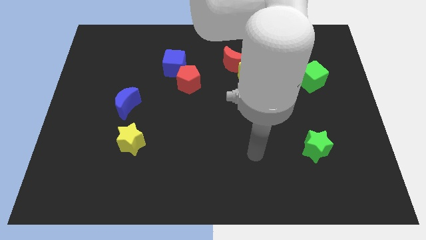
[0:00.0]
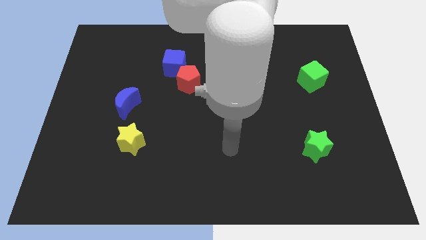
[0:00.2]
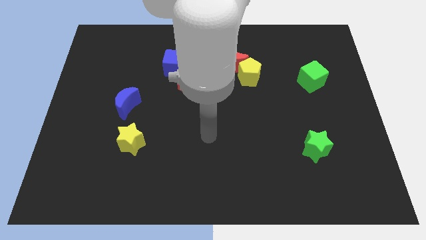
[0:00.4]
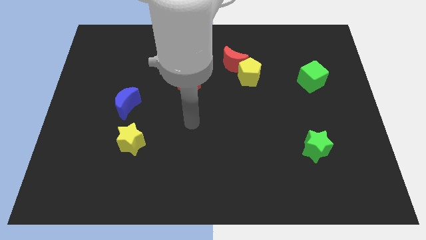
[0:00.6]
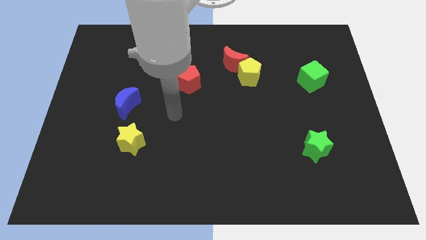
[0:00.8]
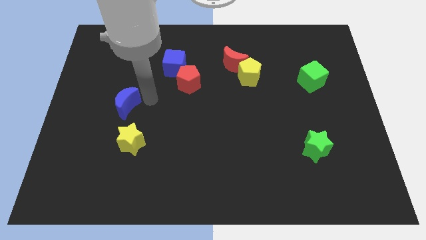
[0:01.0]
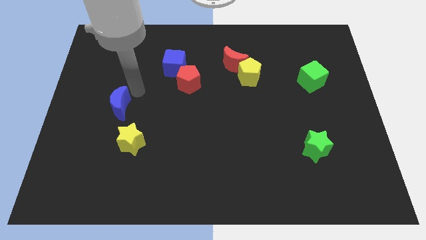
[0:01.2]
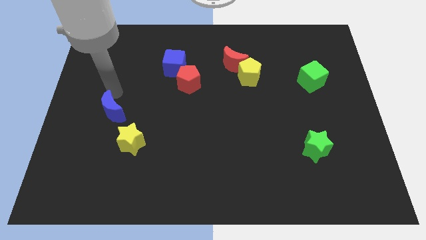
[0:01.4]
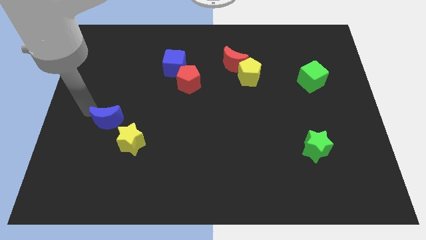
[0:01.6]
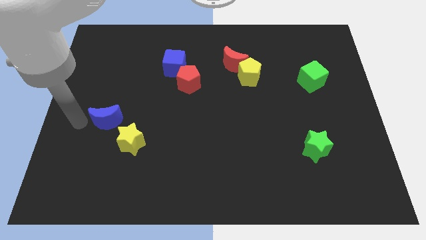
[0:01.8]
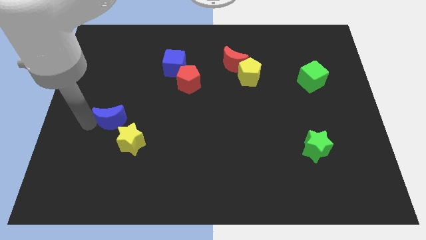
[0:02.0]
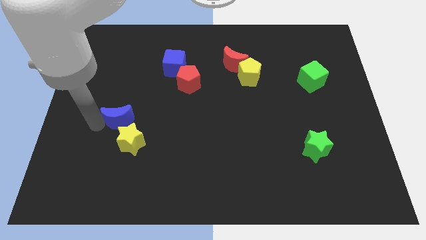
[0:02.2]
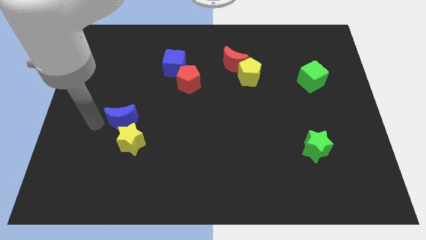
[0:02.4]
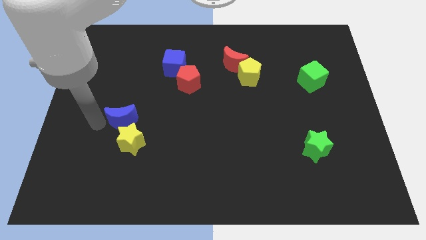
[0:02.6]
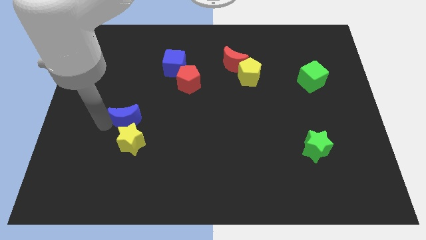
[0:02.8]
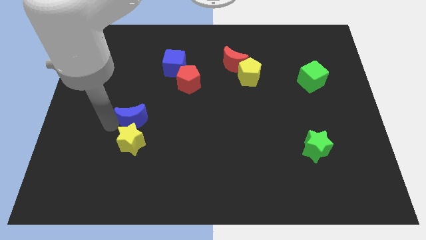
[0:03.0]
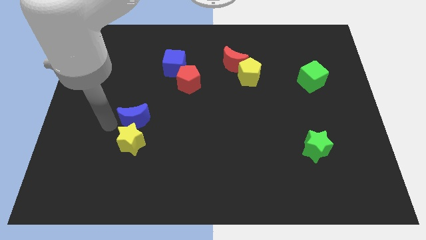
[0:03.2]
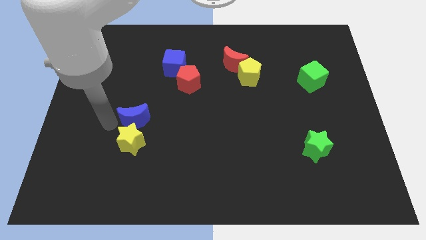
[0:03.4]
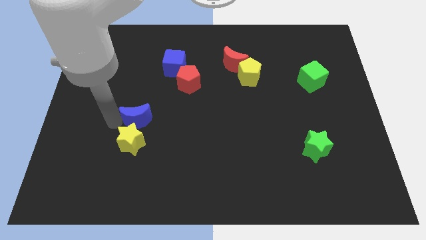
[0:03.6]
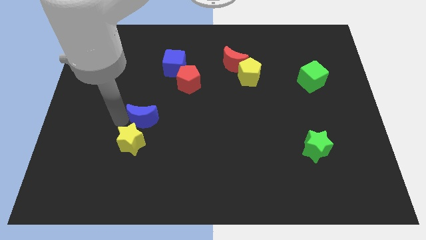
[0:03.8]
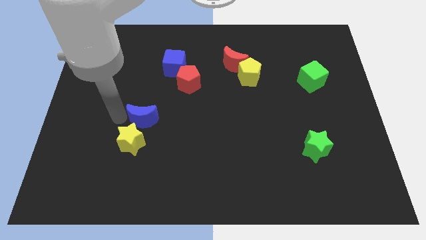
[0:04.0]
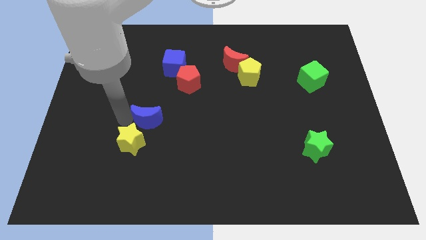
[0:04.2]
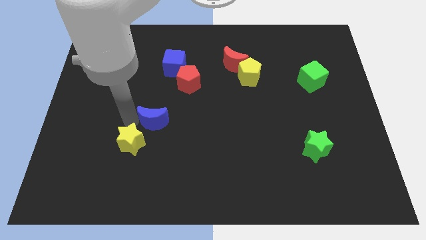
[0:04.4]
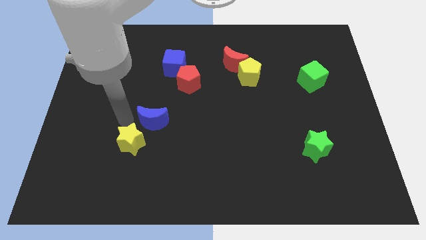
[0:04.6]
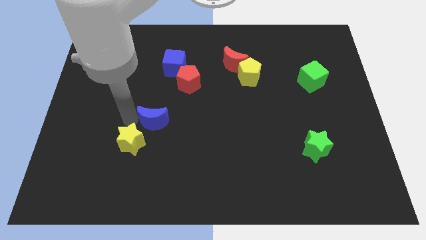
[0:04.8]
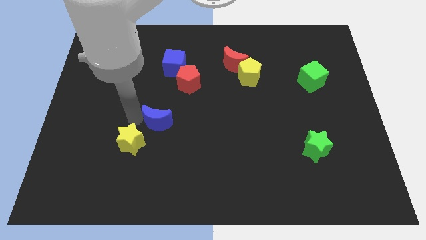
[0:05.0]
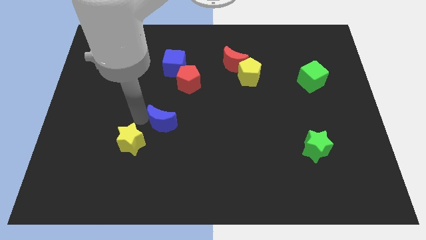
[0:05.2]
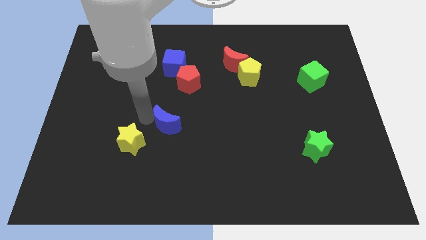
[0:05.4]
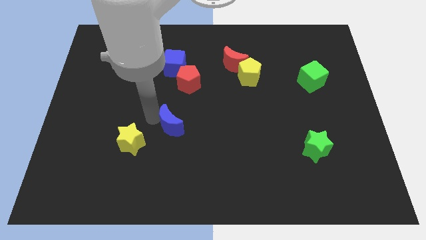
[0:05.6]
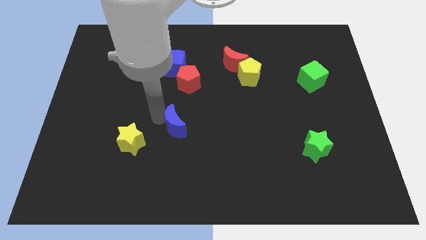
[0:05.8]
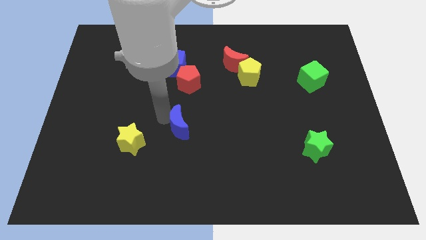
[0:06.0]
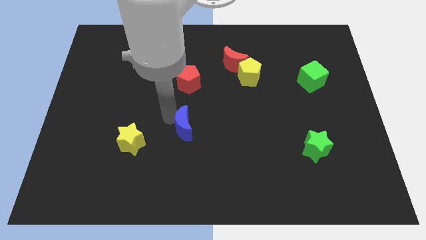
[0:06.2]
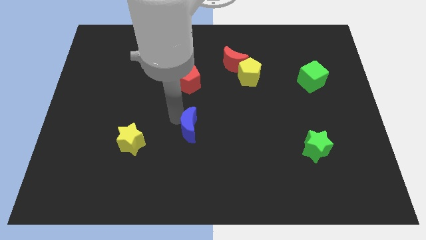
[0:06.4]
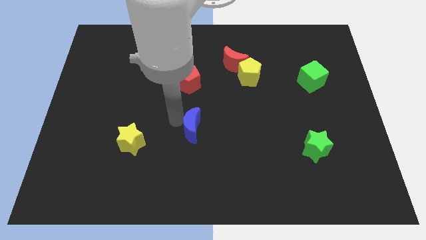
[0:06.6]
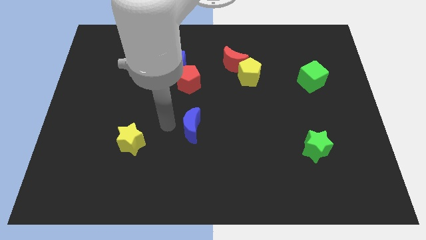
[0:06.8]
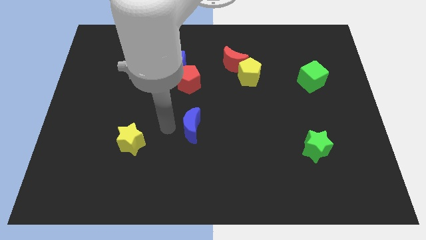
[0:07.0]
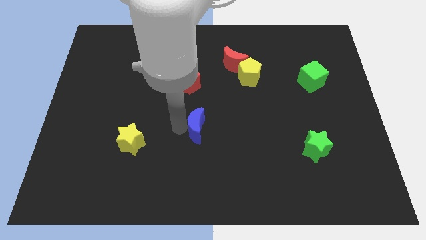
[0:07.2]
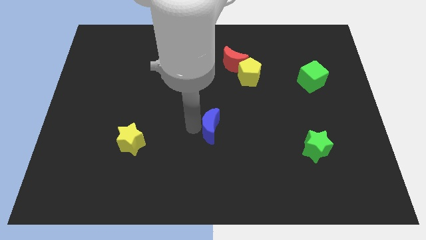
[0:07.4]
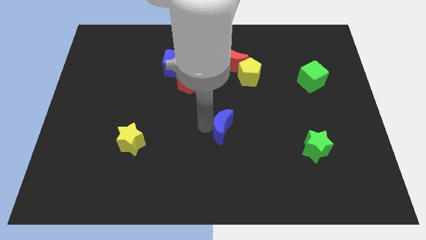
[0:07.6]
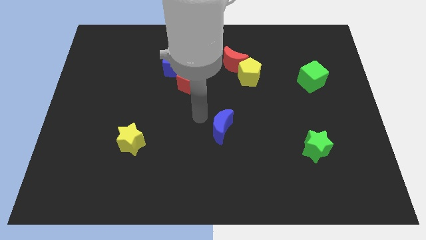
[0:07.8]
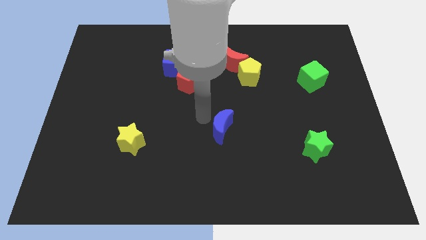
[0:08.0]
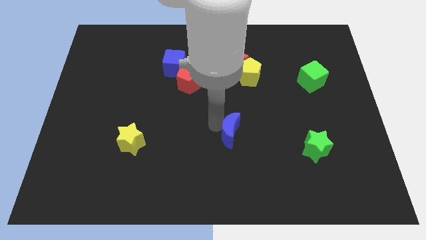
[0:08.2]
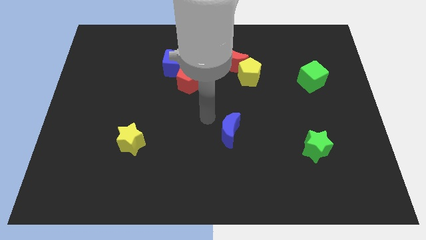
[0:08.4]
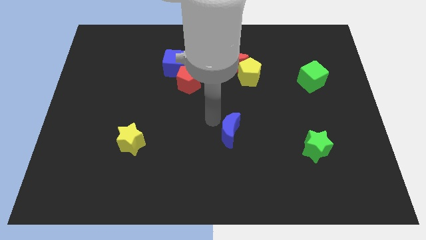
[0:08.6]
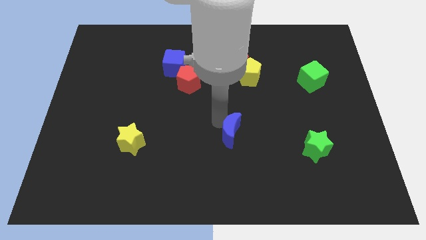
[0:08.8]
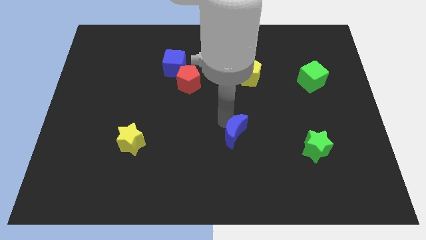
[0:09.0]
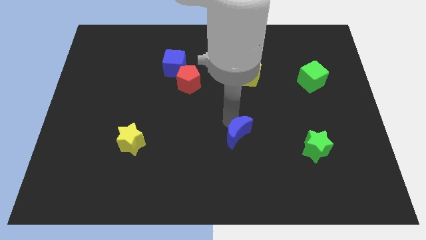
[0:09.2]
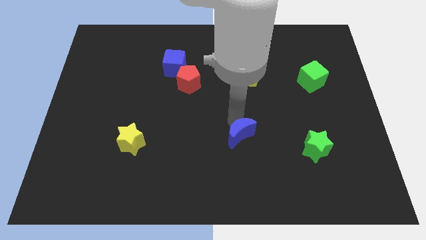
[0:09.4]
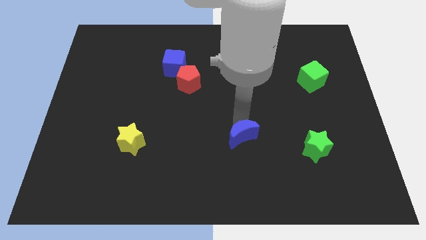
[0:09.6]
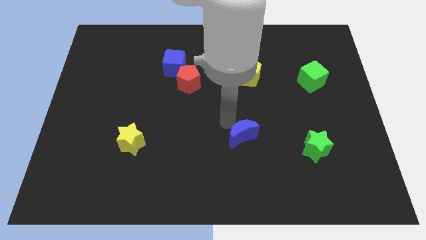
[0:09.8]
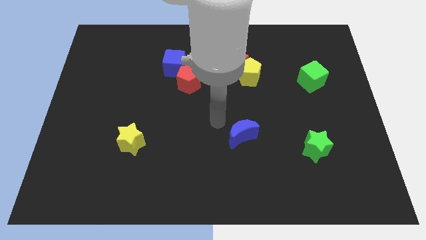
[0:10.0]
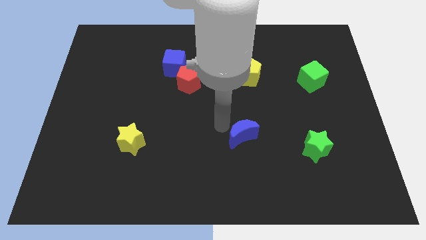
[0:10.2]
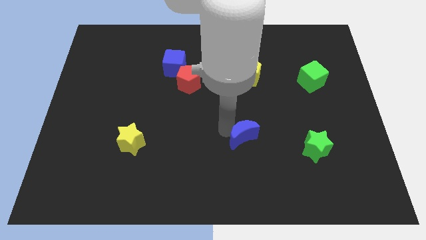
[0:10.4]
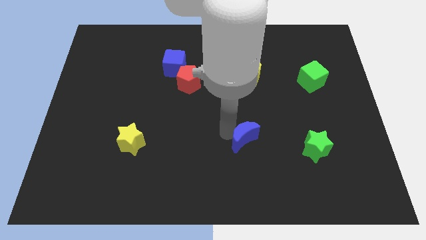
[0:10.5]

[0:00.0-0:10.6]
slide the blue moon just left of the green star

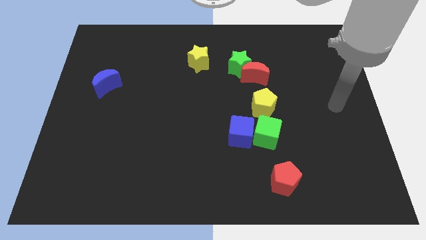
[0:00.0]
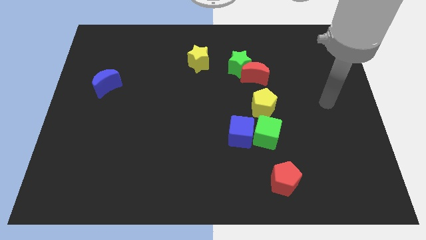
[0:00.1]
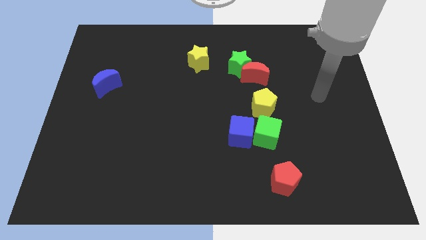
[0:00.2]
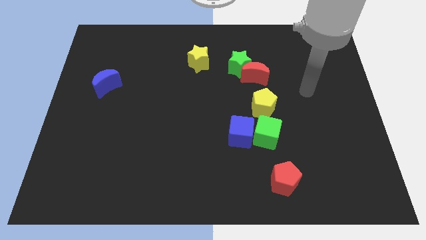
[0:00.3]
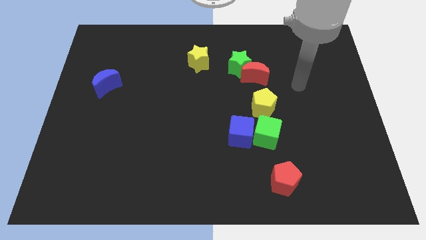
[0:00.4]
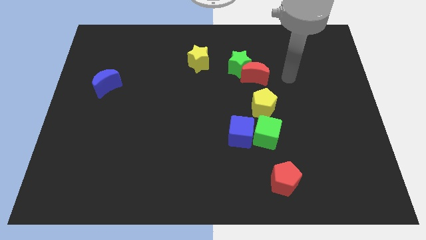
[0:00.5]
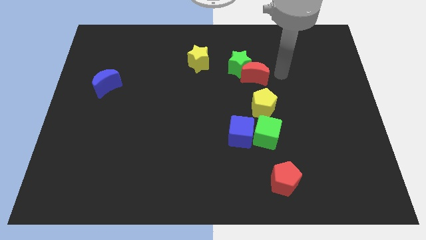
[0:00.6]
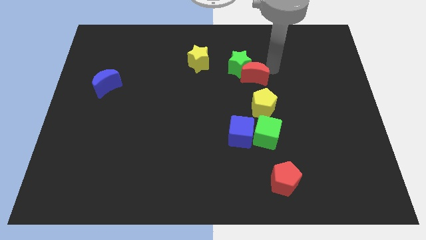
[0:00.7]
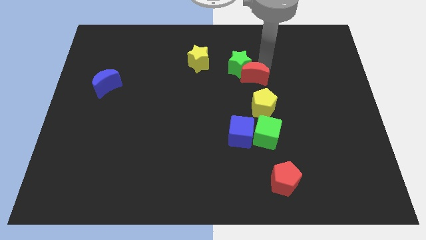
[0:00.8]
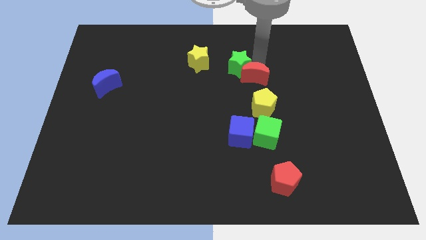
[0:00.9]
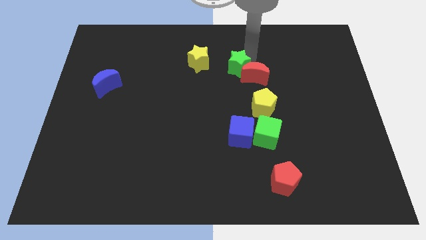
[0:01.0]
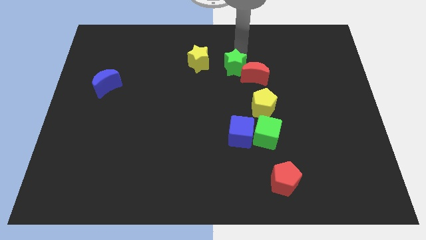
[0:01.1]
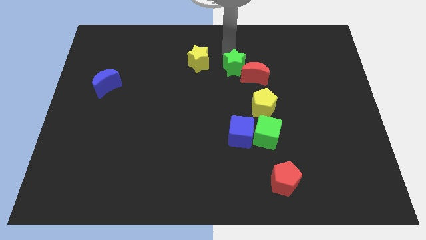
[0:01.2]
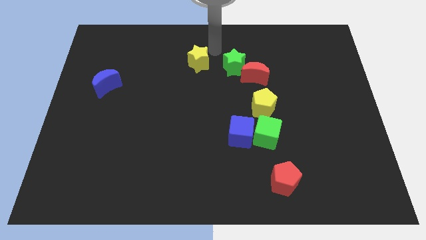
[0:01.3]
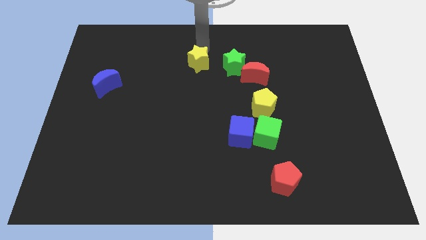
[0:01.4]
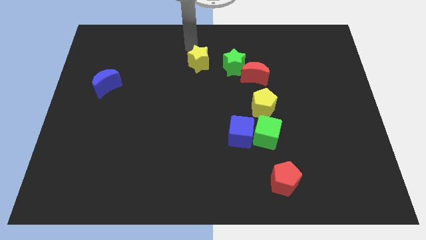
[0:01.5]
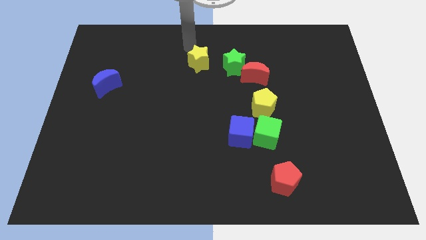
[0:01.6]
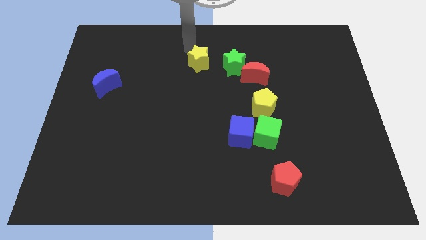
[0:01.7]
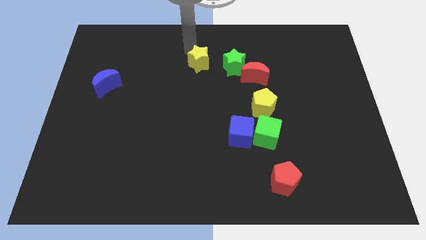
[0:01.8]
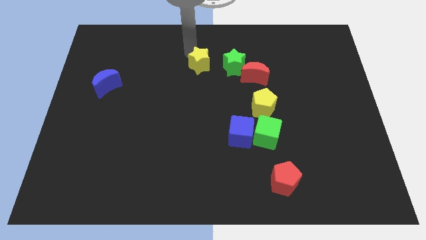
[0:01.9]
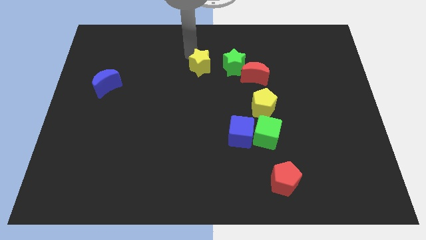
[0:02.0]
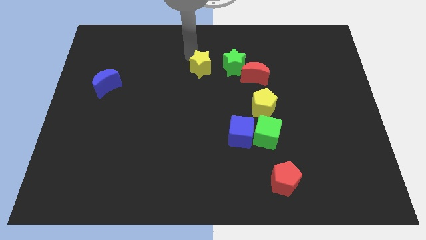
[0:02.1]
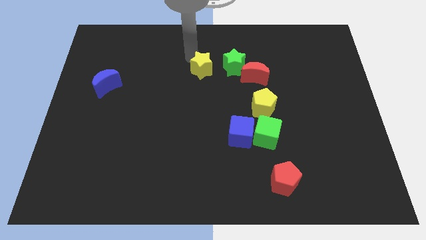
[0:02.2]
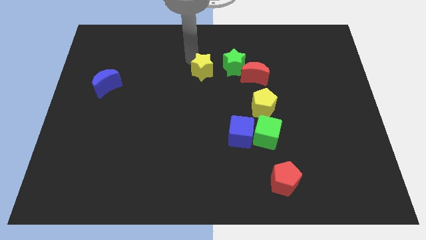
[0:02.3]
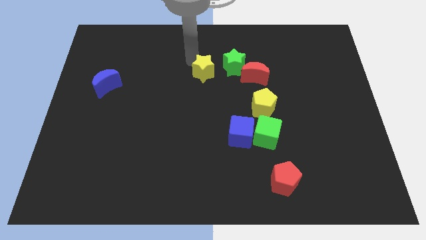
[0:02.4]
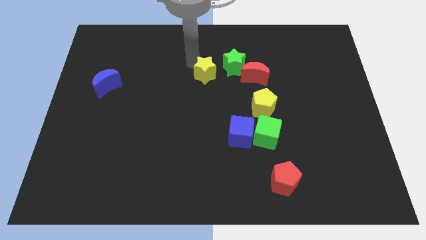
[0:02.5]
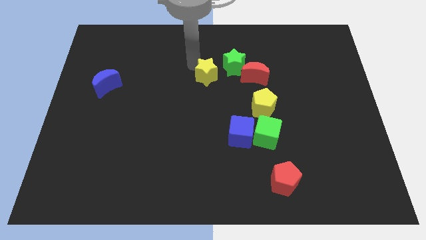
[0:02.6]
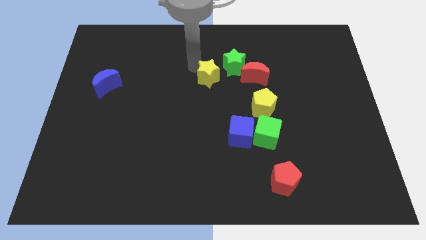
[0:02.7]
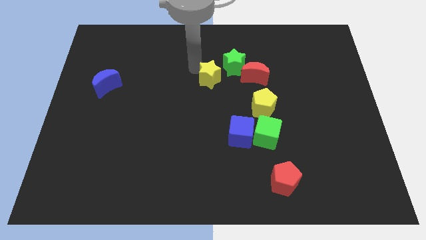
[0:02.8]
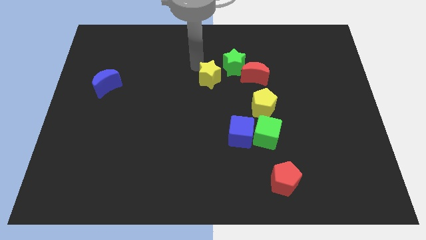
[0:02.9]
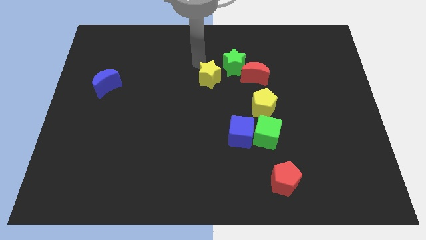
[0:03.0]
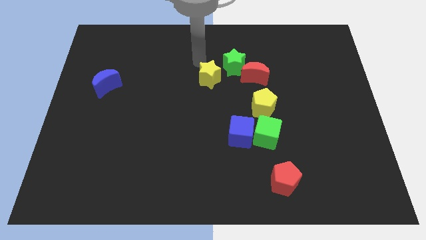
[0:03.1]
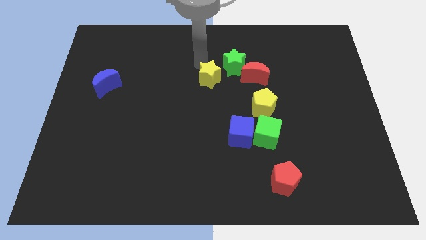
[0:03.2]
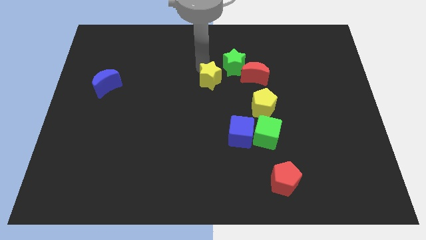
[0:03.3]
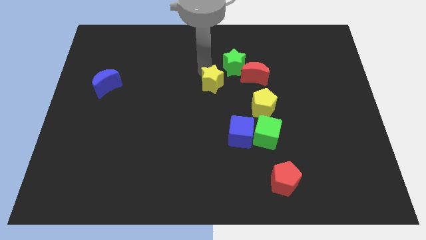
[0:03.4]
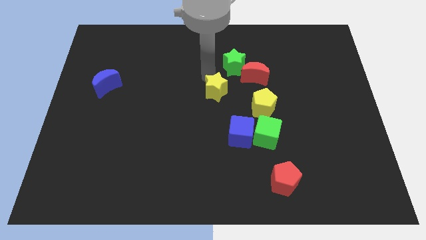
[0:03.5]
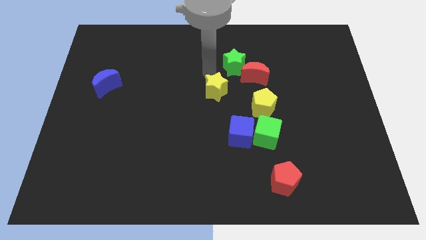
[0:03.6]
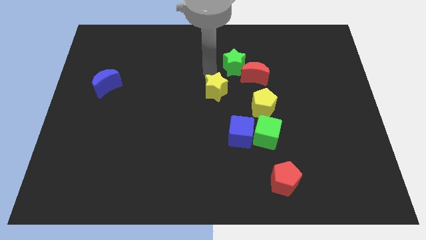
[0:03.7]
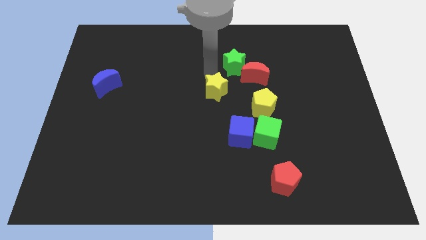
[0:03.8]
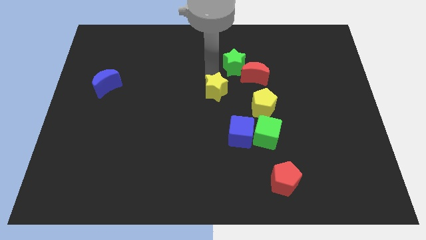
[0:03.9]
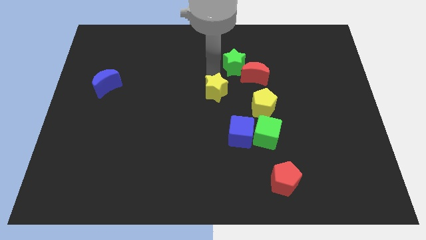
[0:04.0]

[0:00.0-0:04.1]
move the yellow star left of the yellow pentagon
